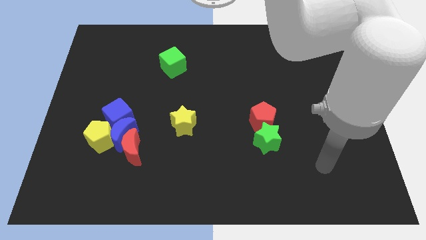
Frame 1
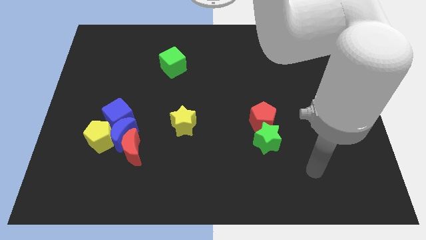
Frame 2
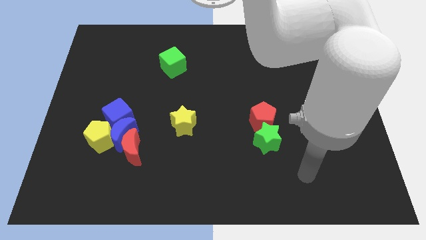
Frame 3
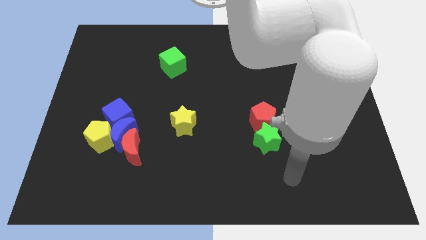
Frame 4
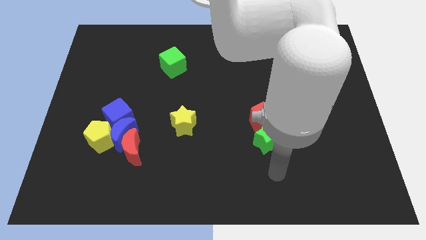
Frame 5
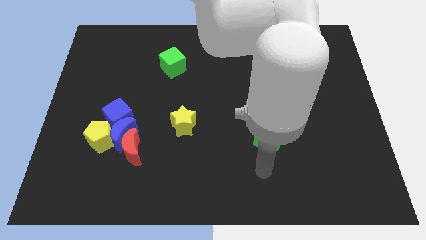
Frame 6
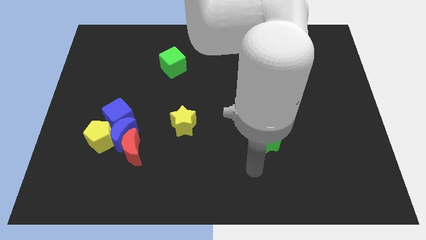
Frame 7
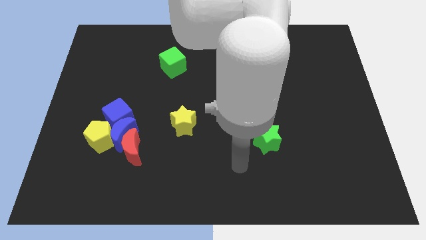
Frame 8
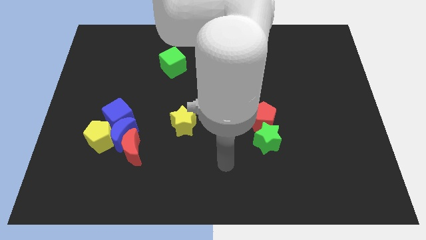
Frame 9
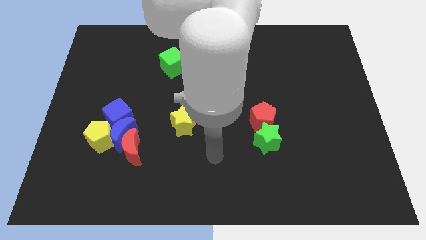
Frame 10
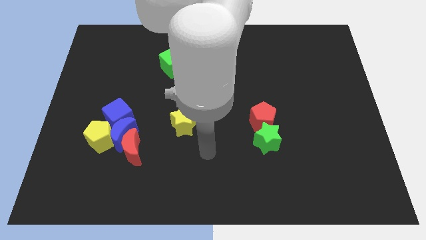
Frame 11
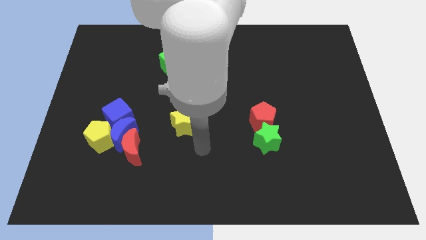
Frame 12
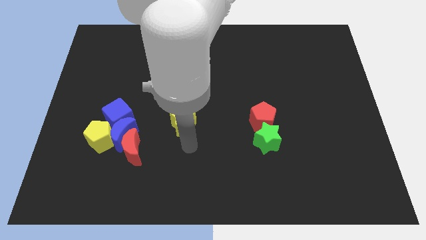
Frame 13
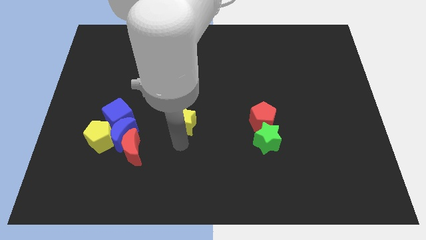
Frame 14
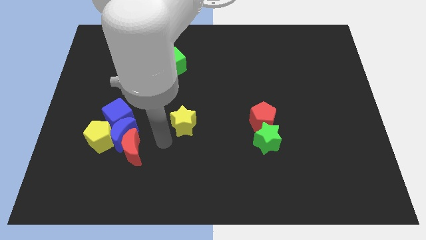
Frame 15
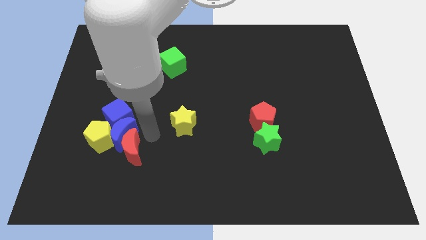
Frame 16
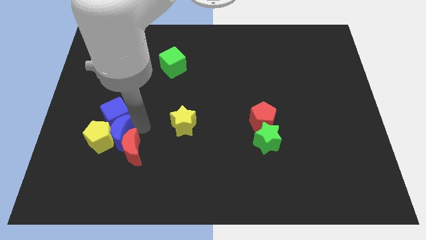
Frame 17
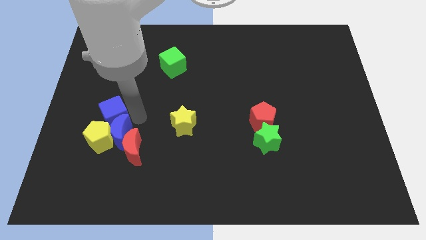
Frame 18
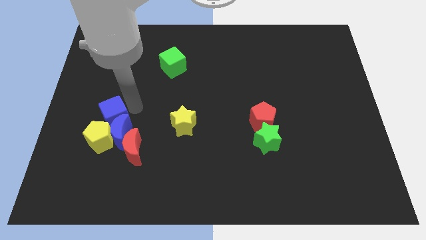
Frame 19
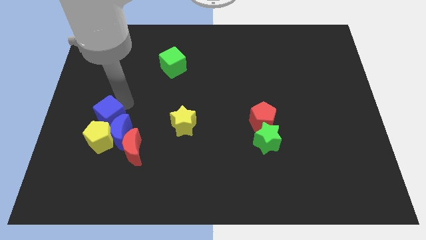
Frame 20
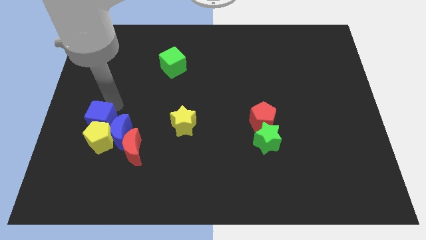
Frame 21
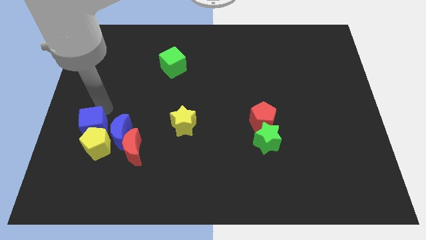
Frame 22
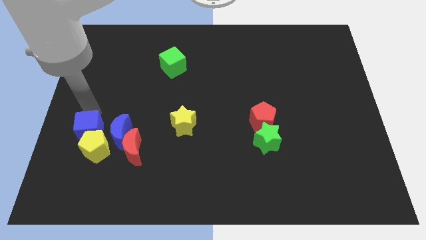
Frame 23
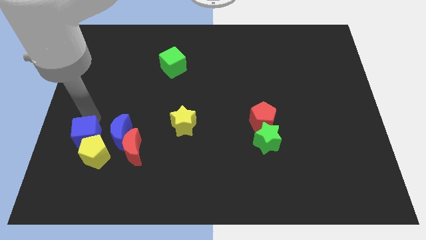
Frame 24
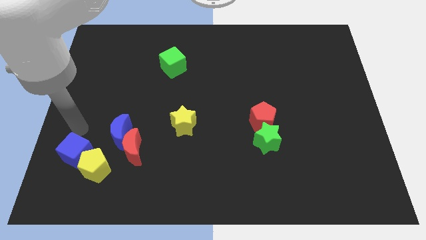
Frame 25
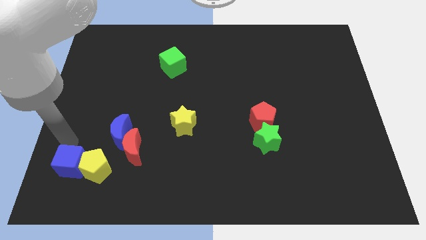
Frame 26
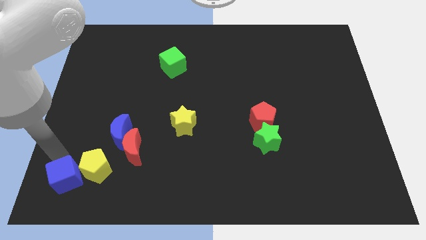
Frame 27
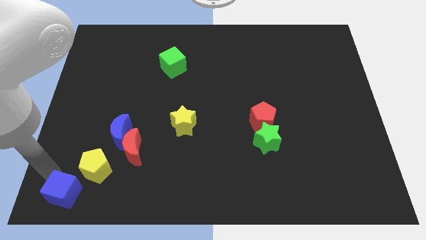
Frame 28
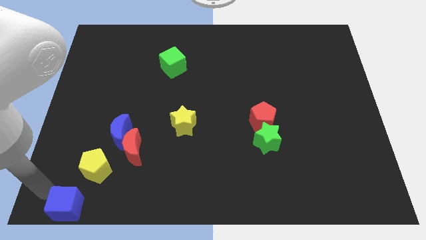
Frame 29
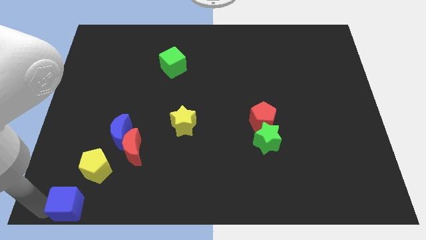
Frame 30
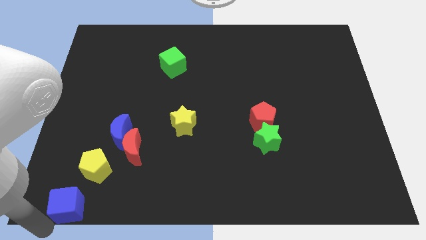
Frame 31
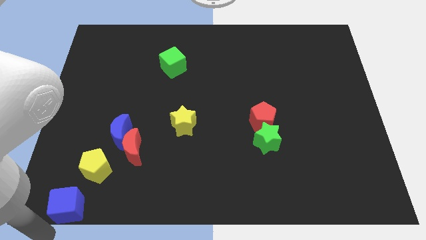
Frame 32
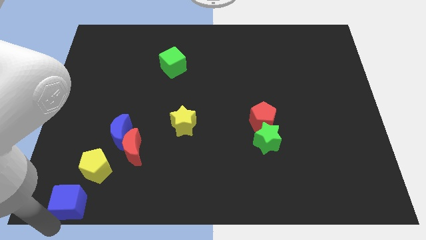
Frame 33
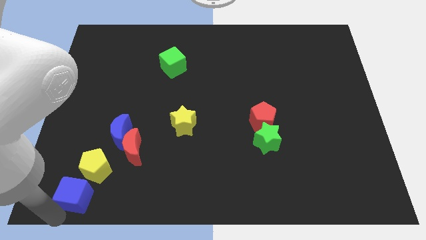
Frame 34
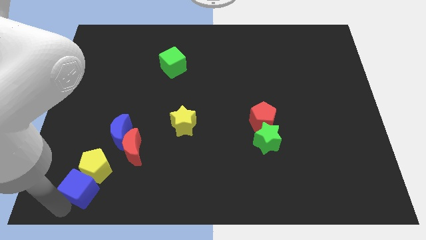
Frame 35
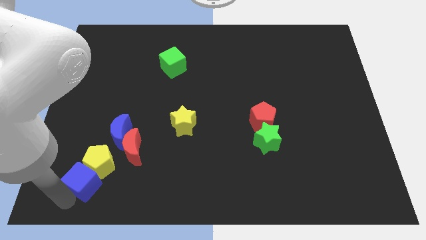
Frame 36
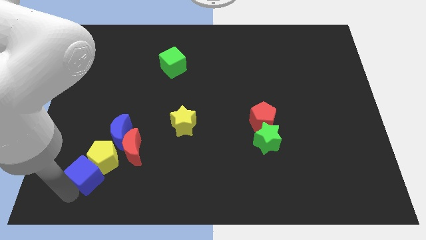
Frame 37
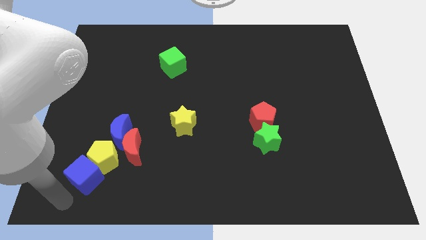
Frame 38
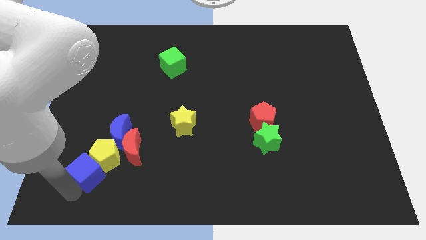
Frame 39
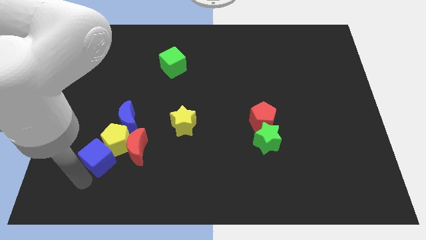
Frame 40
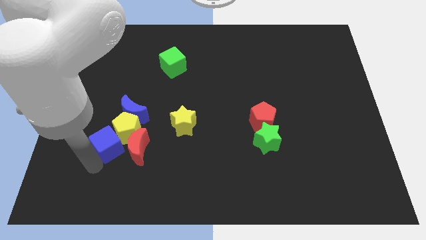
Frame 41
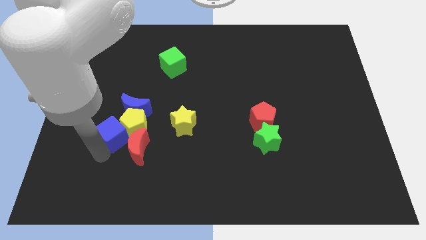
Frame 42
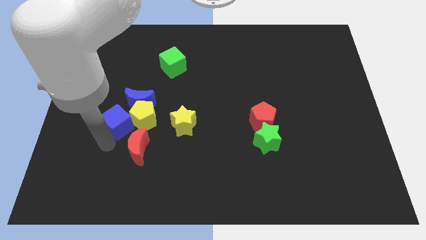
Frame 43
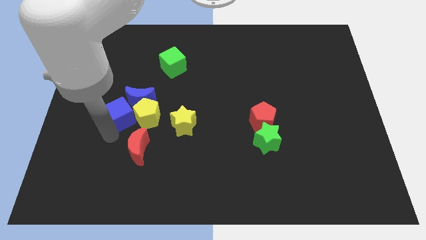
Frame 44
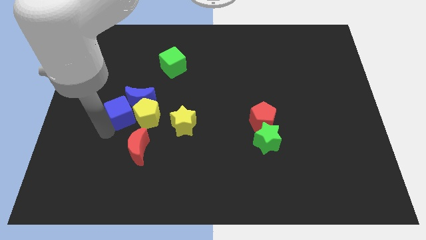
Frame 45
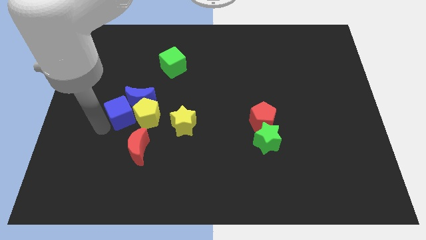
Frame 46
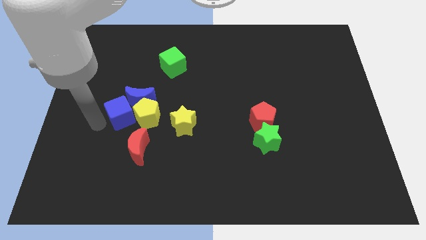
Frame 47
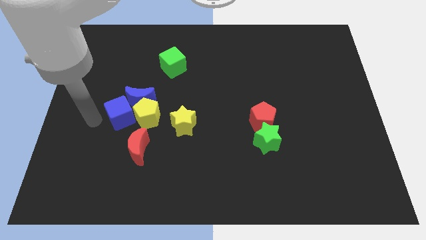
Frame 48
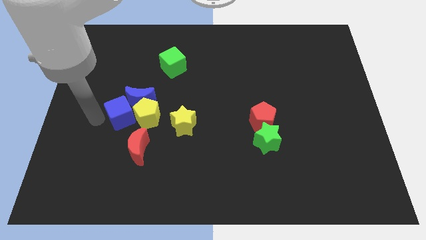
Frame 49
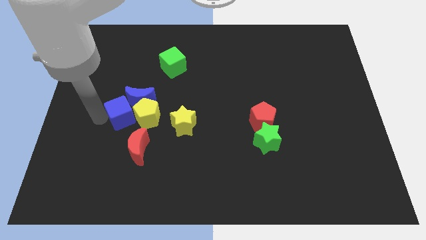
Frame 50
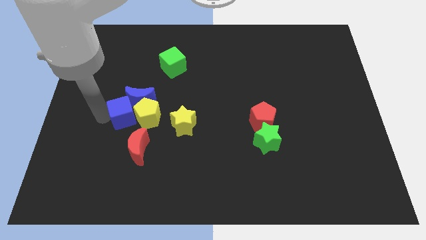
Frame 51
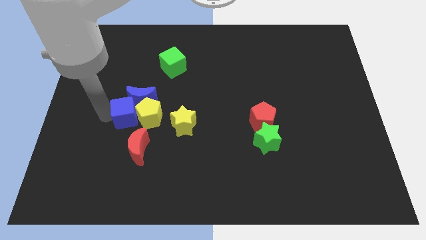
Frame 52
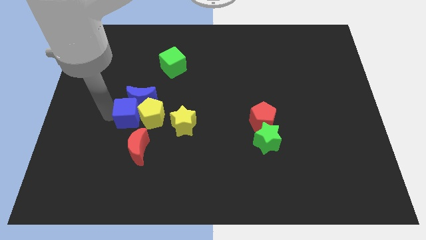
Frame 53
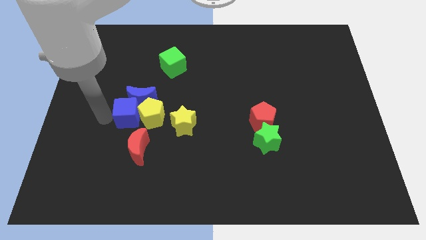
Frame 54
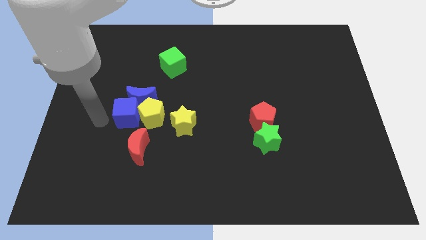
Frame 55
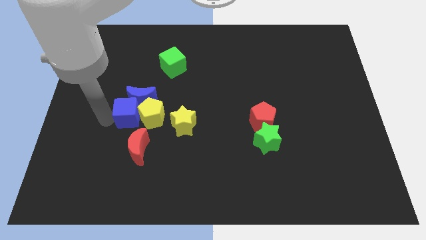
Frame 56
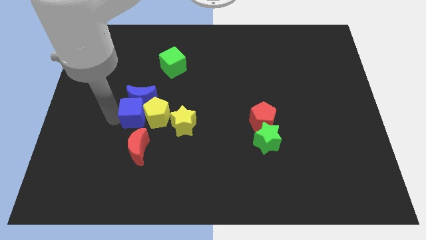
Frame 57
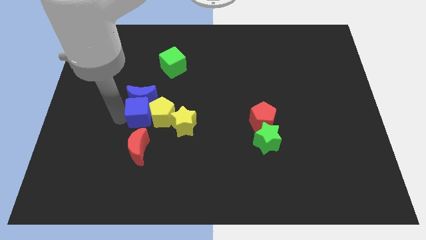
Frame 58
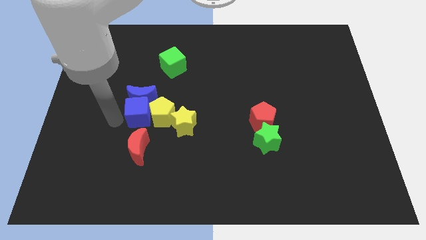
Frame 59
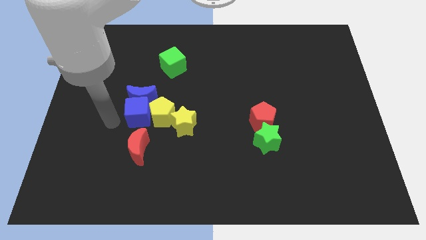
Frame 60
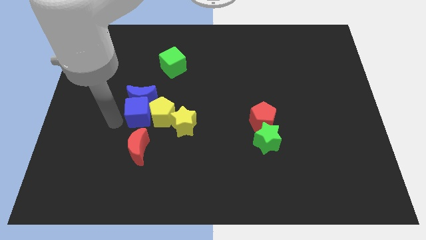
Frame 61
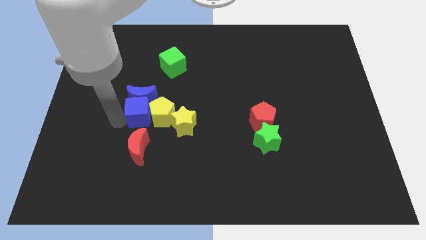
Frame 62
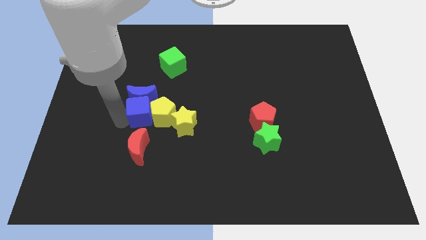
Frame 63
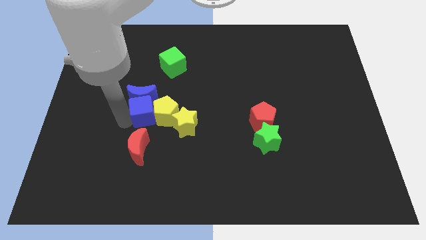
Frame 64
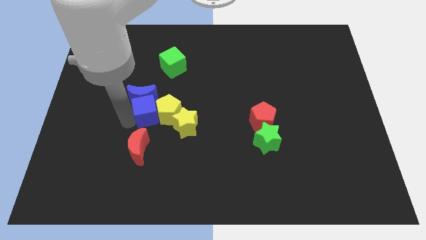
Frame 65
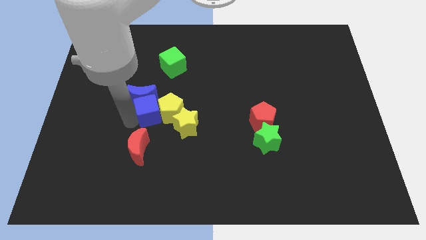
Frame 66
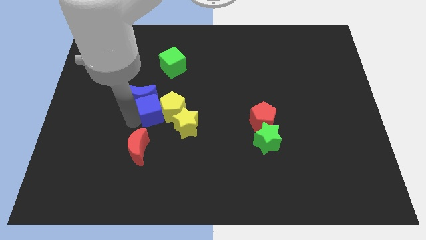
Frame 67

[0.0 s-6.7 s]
slide the blue cube right slightly

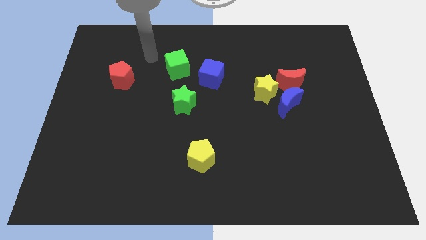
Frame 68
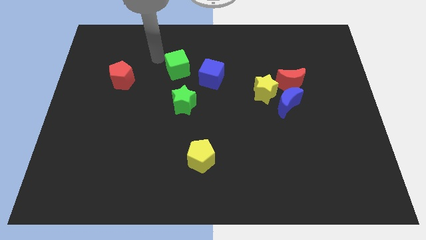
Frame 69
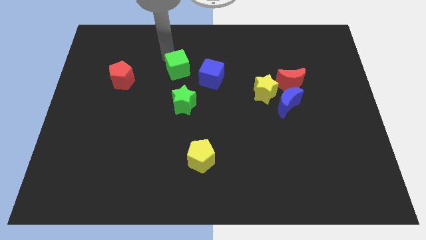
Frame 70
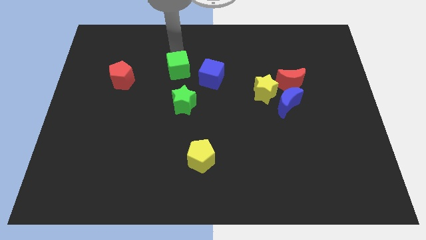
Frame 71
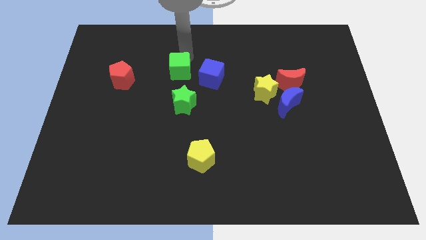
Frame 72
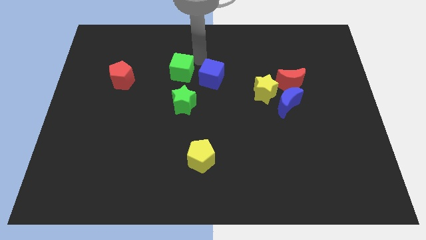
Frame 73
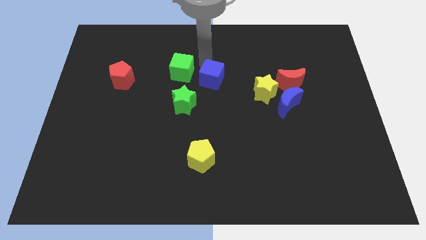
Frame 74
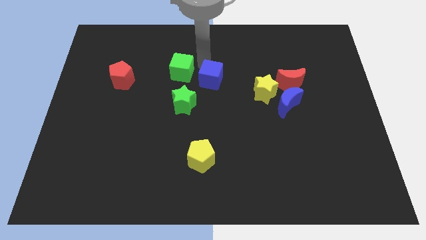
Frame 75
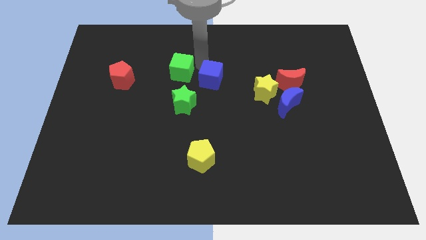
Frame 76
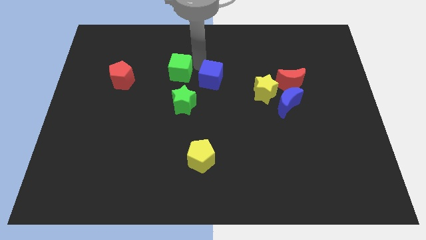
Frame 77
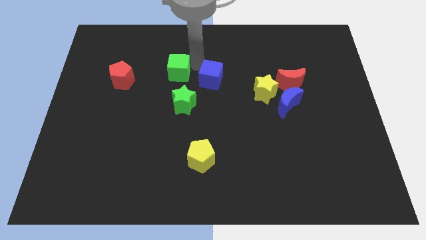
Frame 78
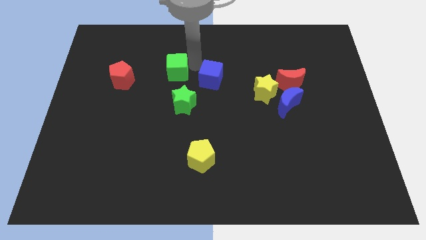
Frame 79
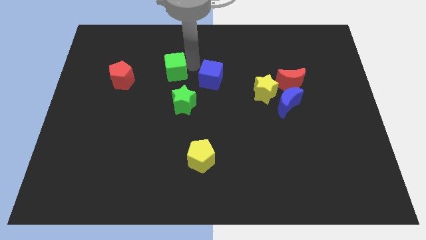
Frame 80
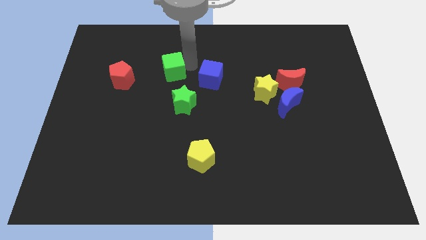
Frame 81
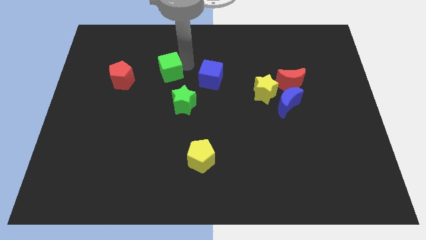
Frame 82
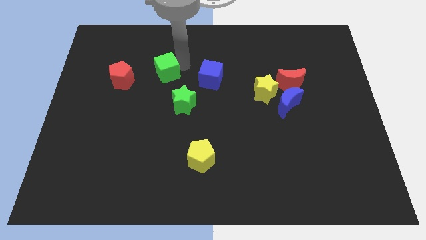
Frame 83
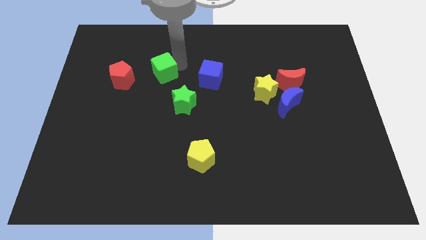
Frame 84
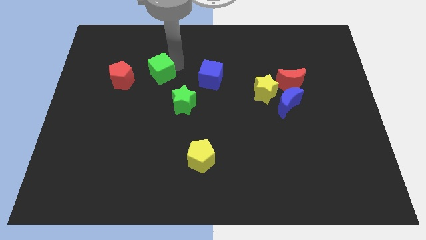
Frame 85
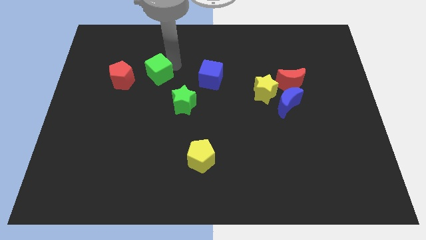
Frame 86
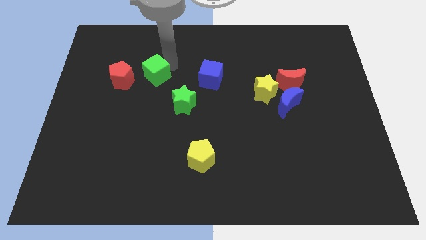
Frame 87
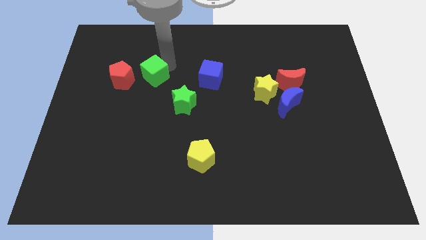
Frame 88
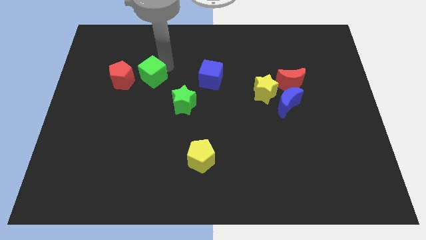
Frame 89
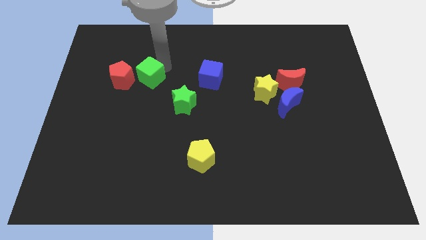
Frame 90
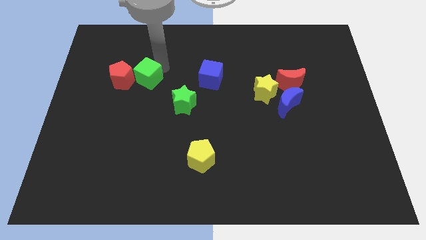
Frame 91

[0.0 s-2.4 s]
move the green cube slightly down and left
